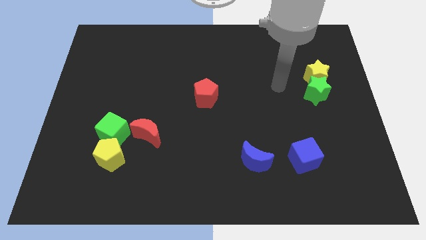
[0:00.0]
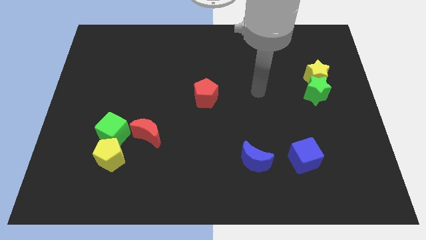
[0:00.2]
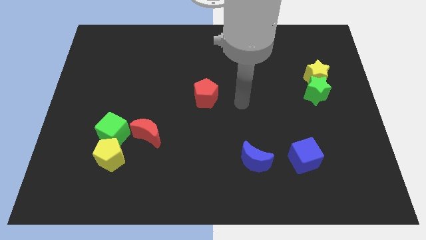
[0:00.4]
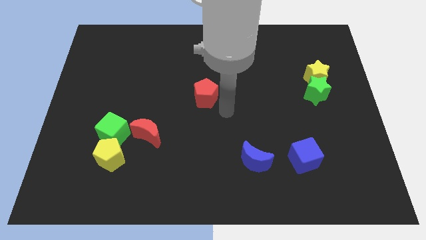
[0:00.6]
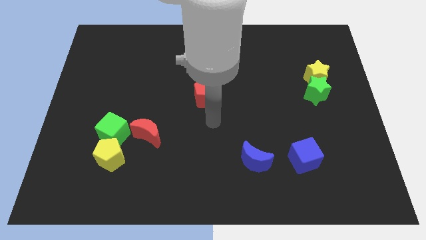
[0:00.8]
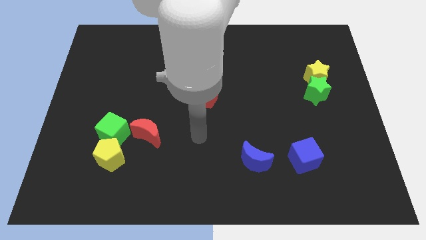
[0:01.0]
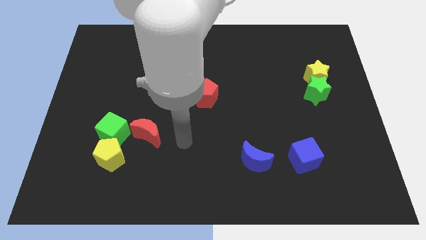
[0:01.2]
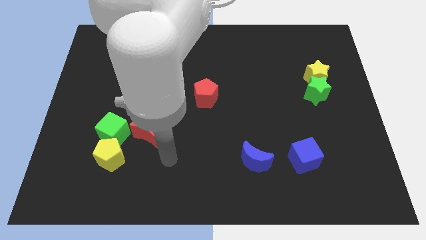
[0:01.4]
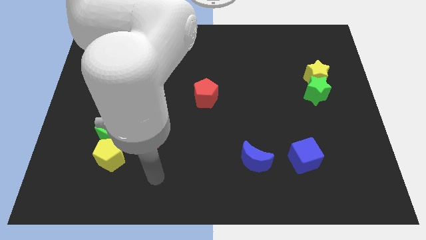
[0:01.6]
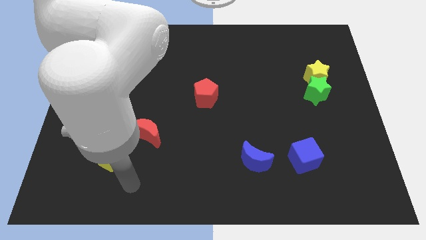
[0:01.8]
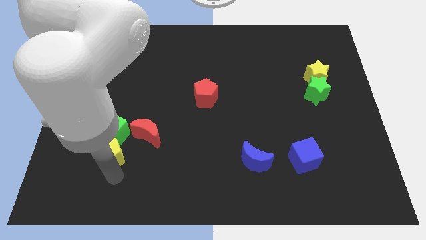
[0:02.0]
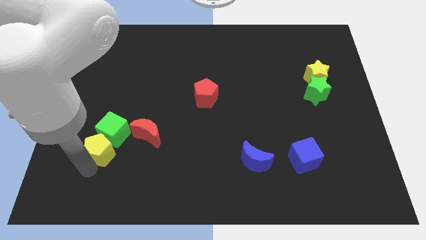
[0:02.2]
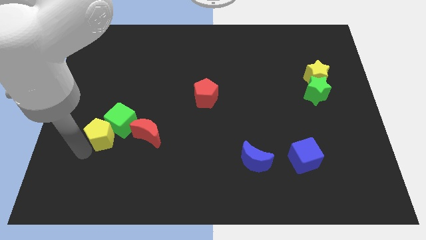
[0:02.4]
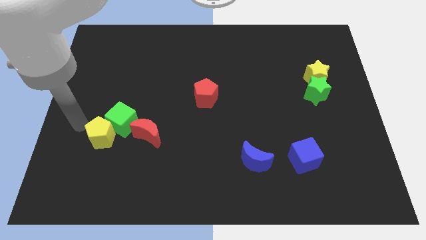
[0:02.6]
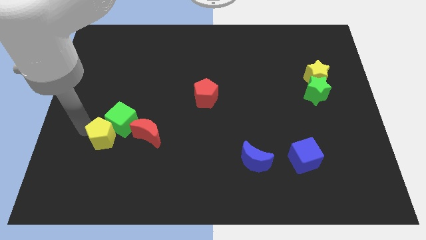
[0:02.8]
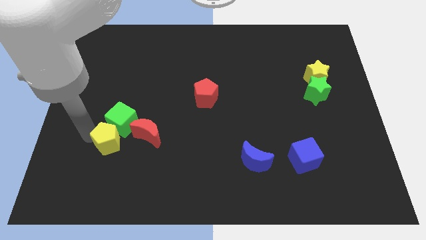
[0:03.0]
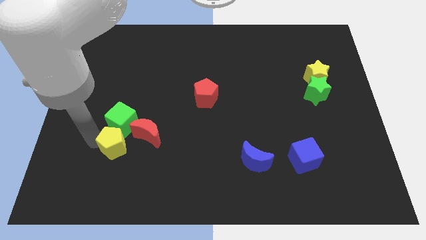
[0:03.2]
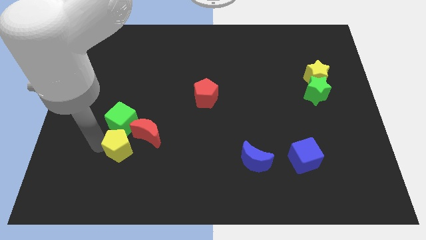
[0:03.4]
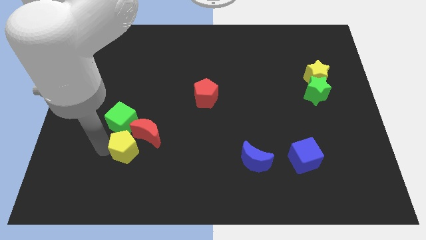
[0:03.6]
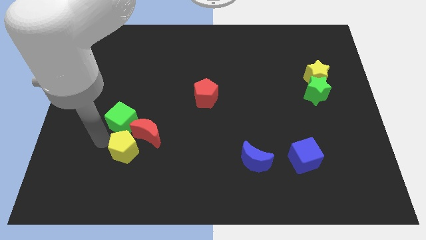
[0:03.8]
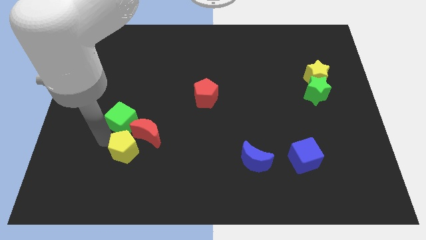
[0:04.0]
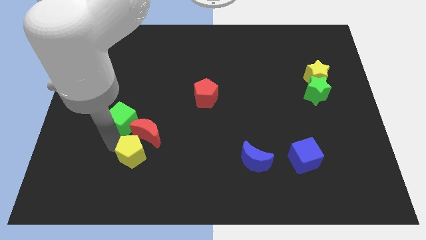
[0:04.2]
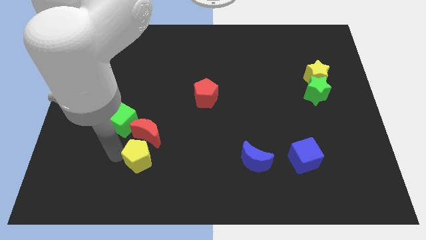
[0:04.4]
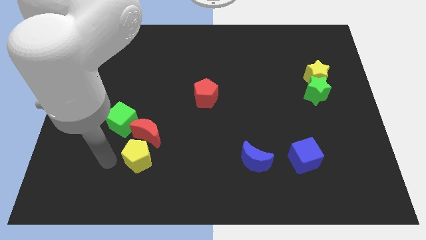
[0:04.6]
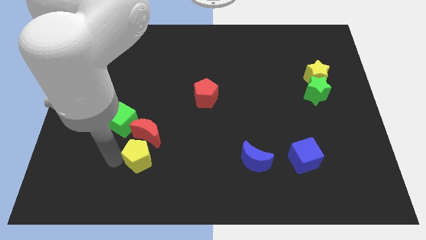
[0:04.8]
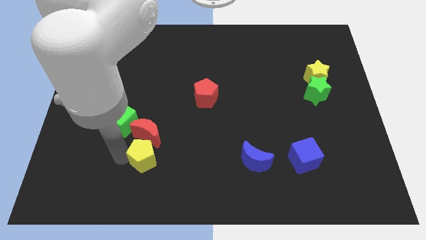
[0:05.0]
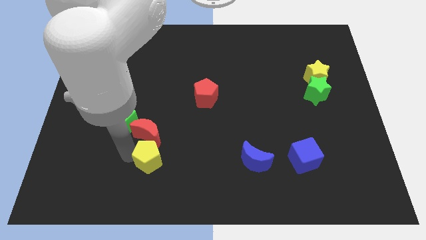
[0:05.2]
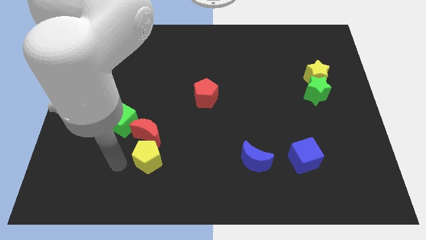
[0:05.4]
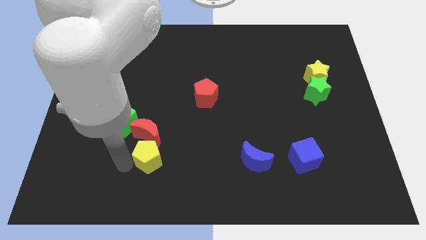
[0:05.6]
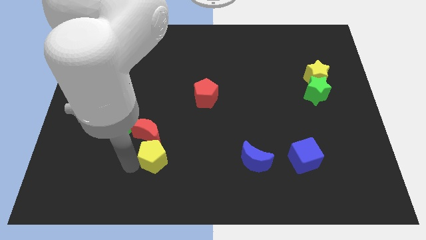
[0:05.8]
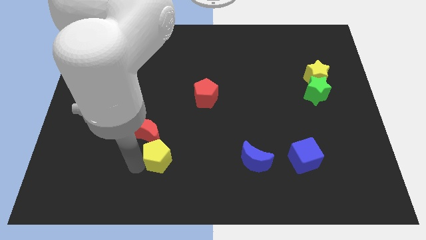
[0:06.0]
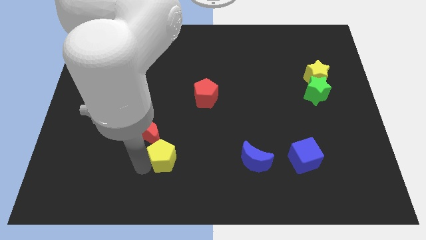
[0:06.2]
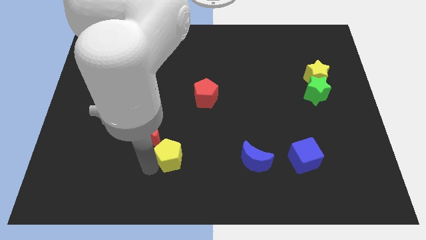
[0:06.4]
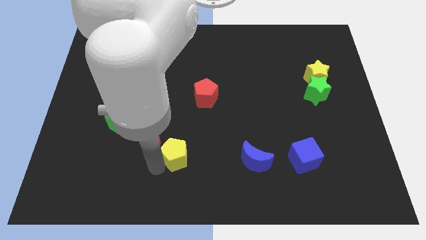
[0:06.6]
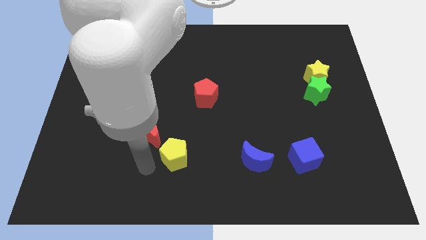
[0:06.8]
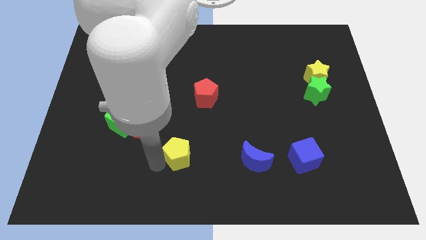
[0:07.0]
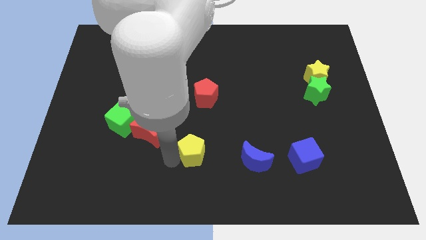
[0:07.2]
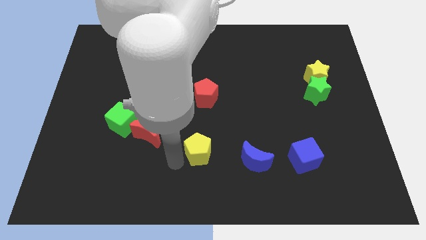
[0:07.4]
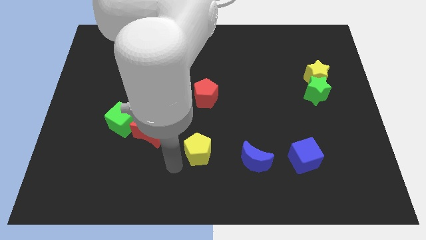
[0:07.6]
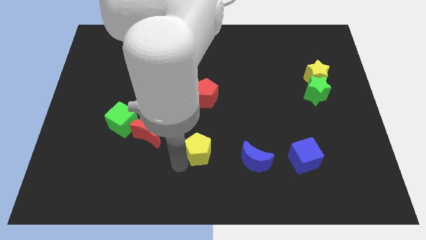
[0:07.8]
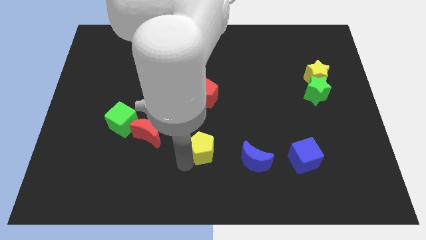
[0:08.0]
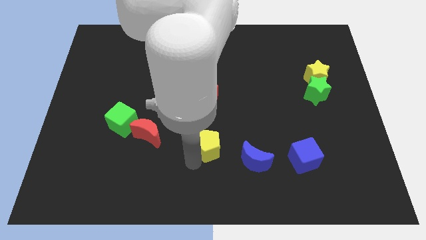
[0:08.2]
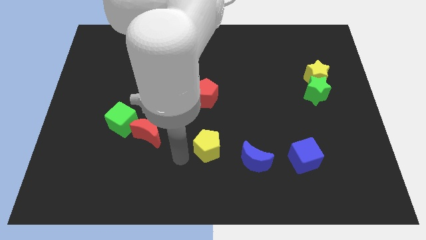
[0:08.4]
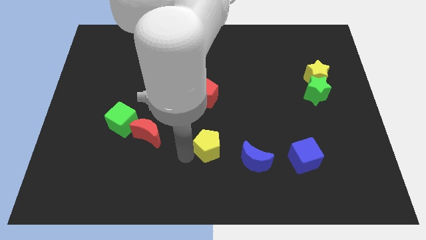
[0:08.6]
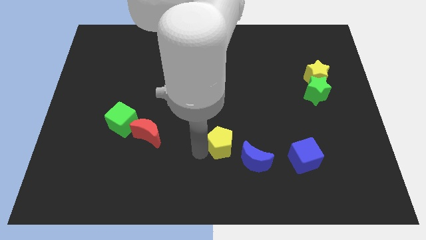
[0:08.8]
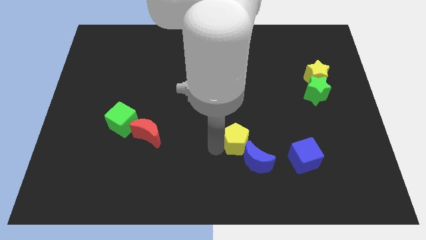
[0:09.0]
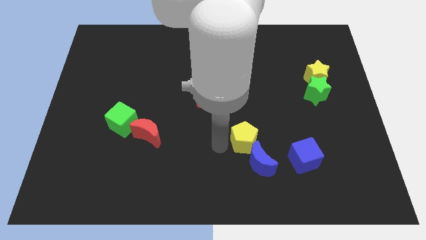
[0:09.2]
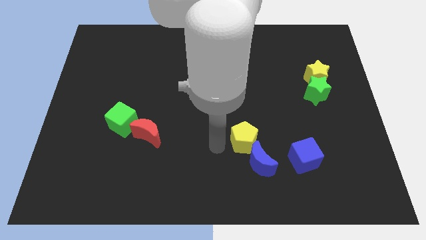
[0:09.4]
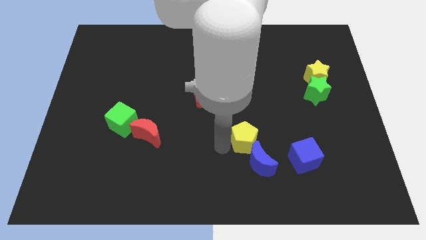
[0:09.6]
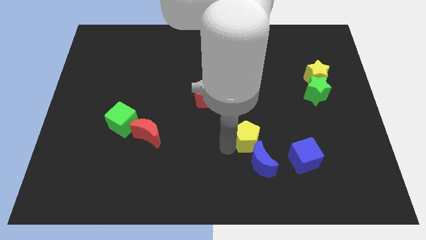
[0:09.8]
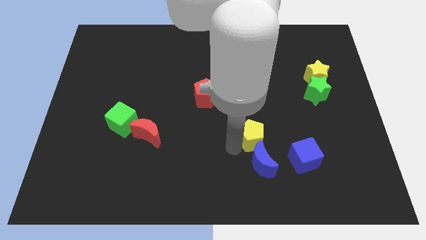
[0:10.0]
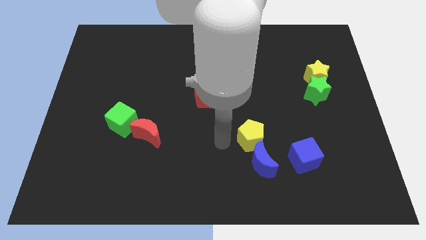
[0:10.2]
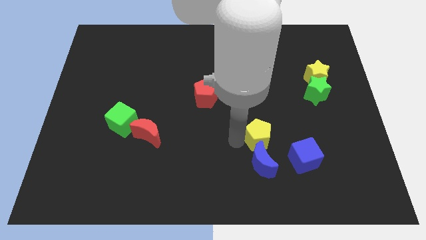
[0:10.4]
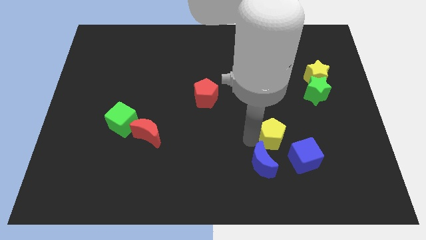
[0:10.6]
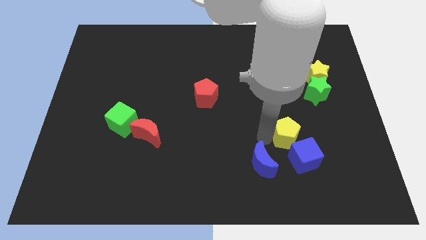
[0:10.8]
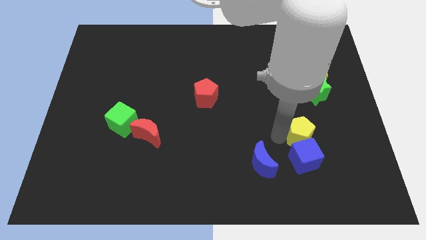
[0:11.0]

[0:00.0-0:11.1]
put the yellow pentagon to the top right side of the blue cube

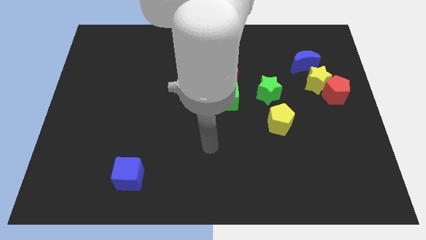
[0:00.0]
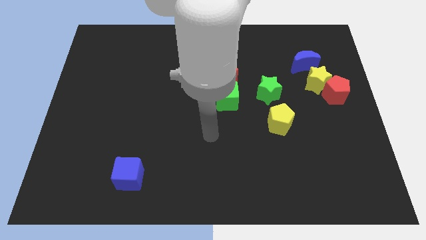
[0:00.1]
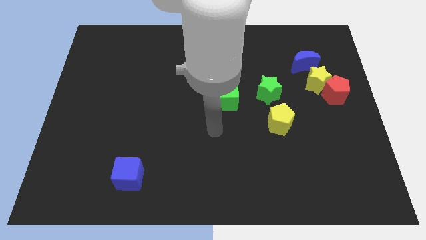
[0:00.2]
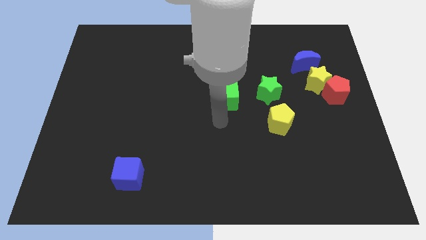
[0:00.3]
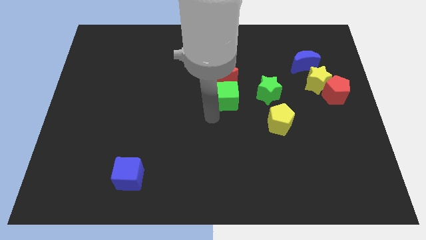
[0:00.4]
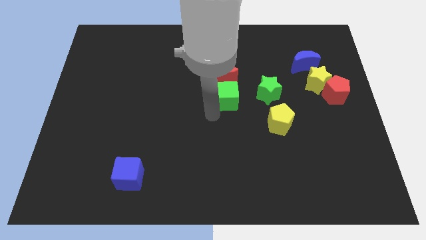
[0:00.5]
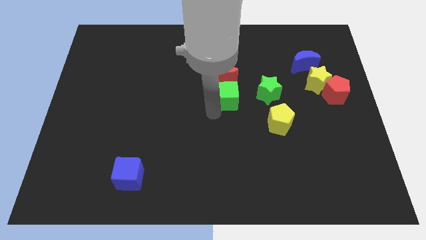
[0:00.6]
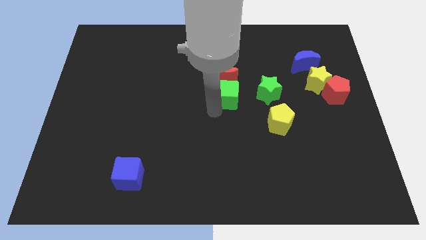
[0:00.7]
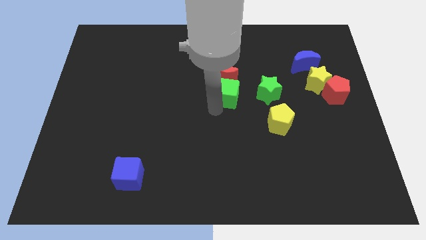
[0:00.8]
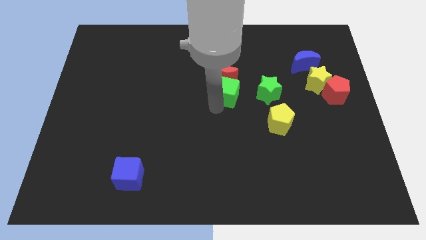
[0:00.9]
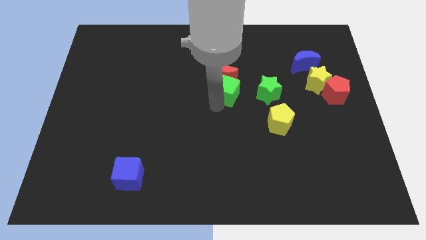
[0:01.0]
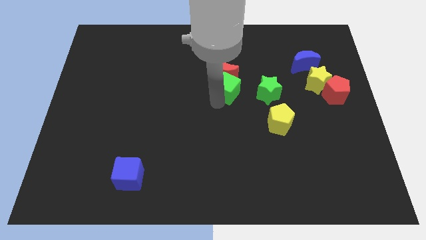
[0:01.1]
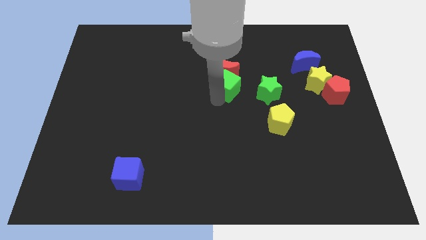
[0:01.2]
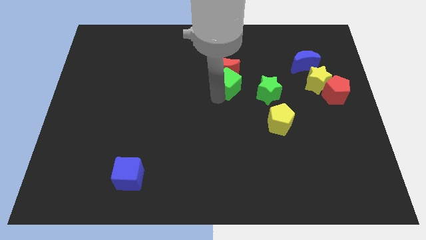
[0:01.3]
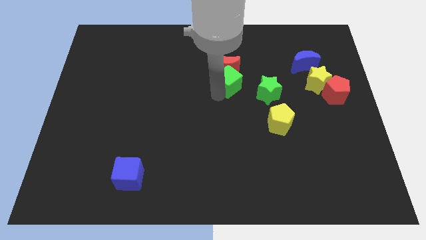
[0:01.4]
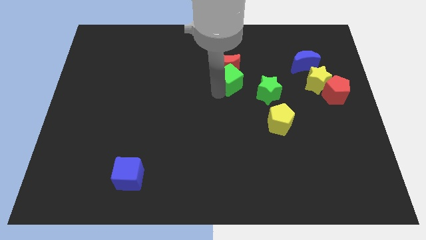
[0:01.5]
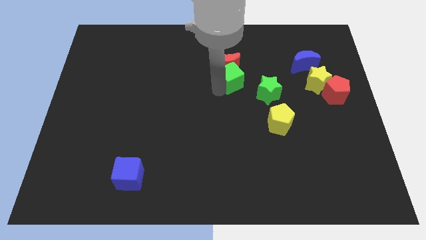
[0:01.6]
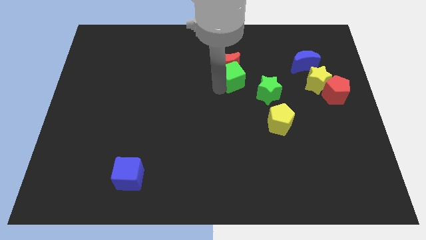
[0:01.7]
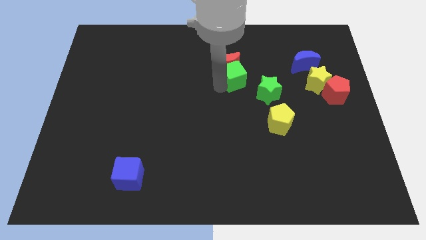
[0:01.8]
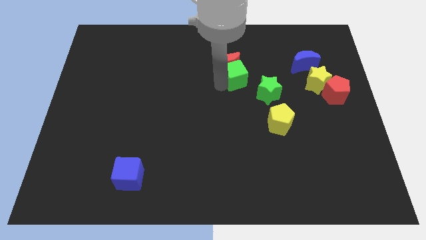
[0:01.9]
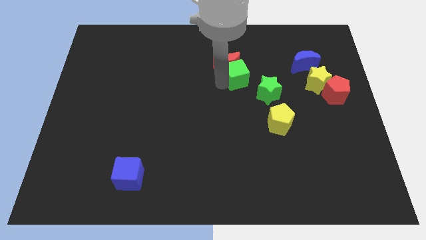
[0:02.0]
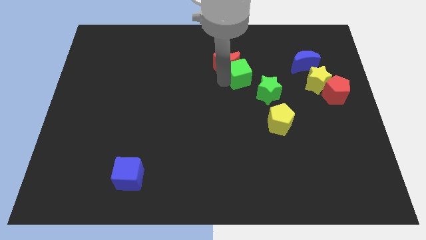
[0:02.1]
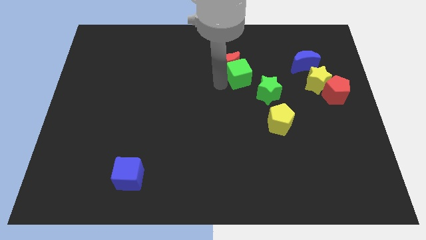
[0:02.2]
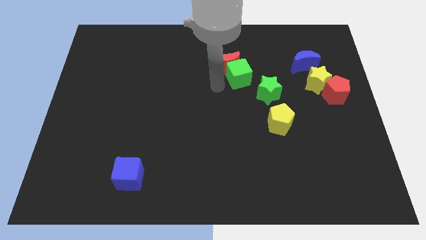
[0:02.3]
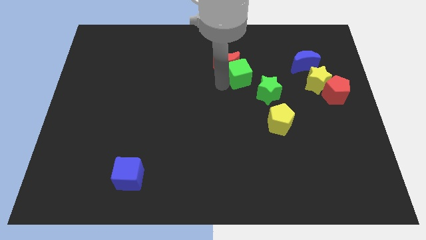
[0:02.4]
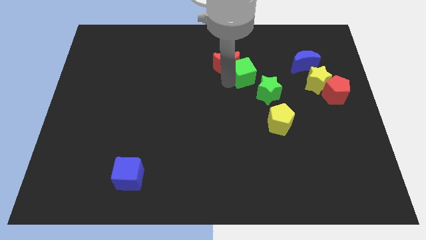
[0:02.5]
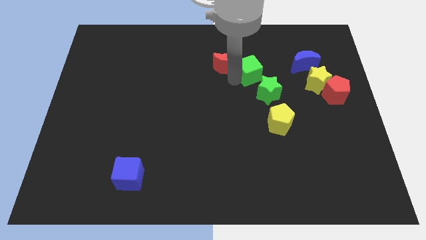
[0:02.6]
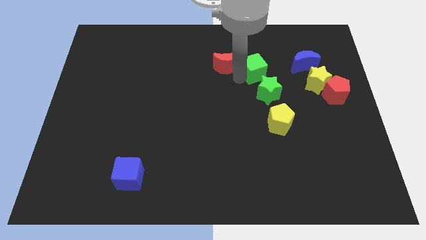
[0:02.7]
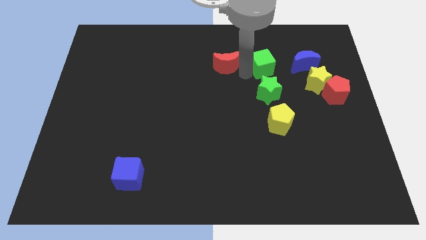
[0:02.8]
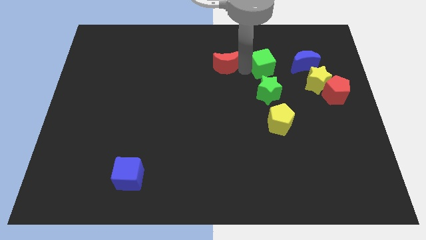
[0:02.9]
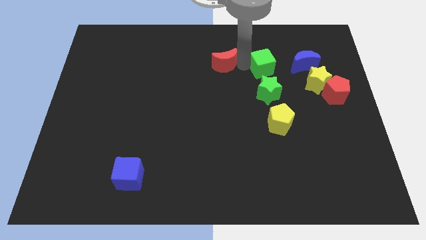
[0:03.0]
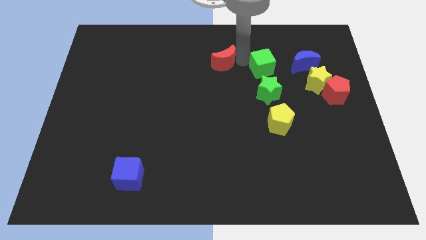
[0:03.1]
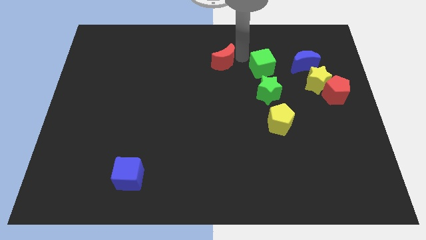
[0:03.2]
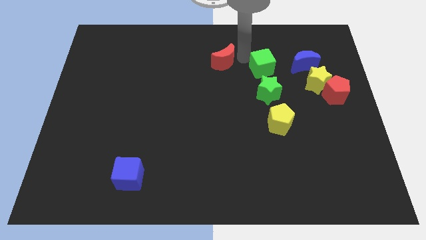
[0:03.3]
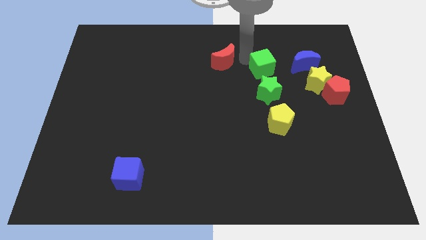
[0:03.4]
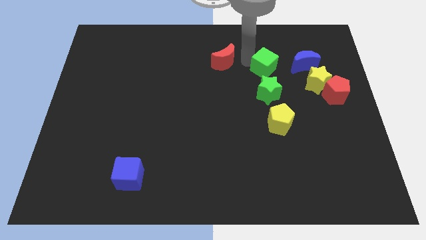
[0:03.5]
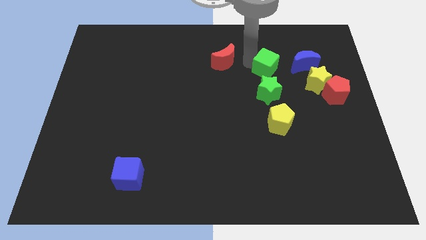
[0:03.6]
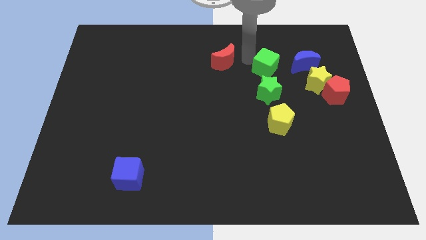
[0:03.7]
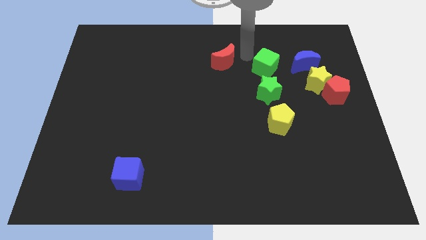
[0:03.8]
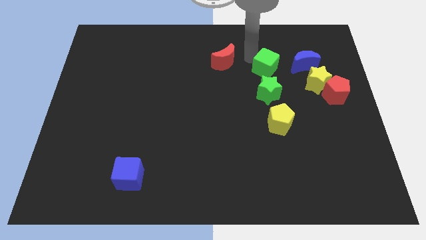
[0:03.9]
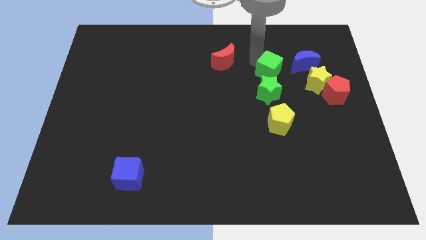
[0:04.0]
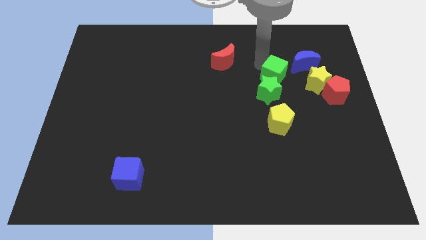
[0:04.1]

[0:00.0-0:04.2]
put the green cube diagonally down and to the left of the blue moon
